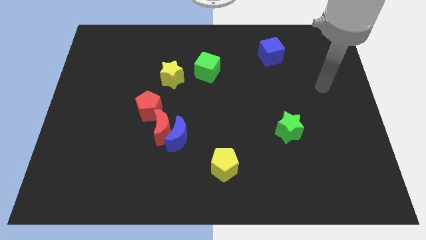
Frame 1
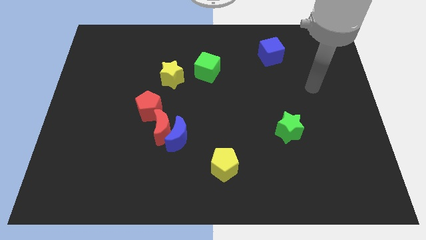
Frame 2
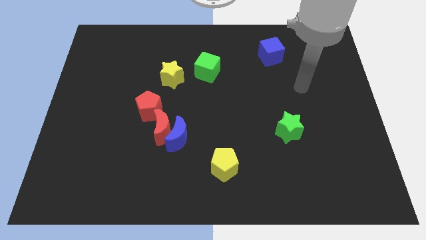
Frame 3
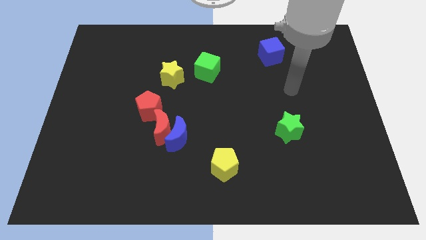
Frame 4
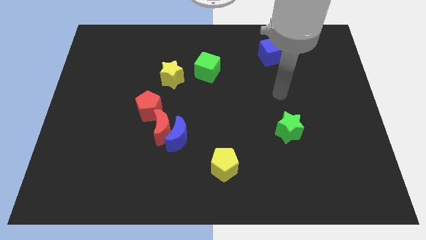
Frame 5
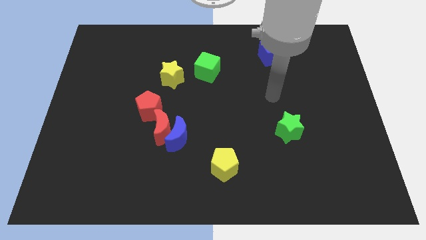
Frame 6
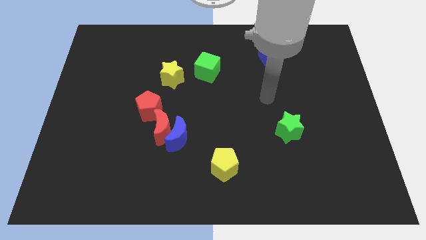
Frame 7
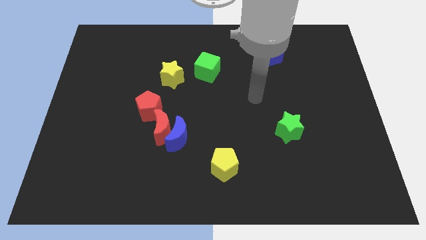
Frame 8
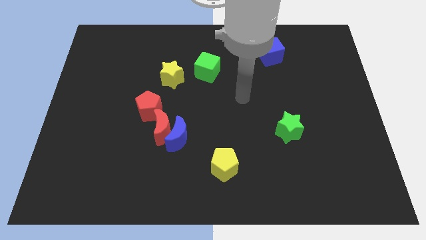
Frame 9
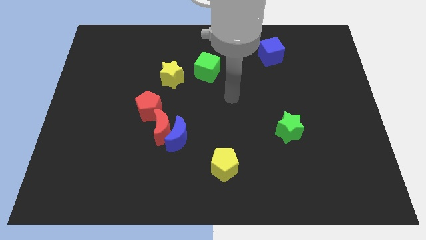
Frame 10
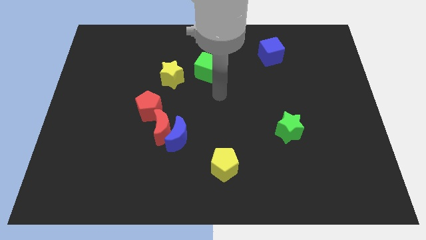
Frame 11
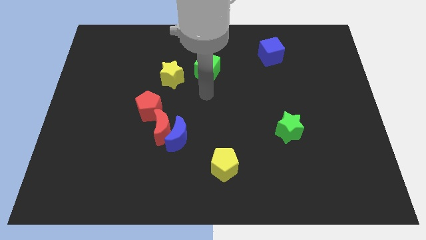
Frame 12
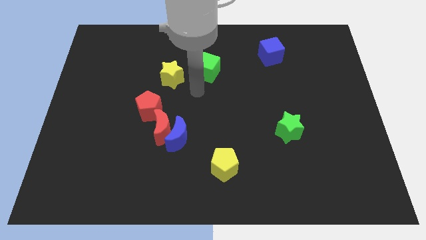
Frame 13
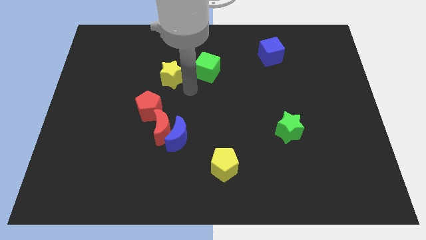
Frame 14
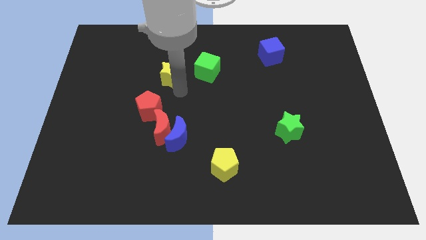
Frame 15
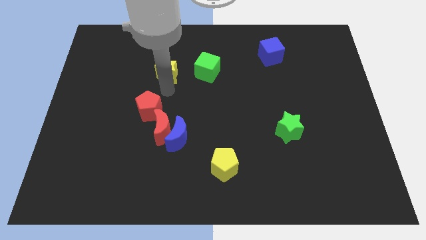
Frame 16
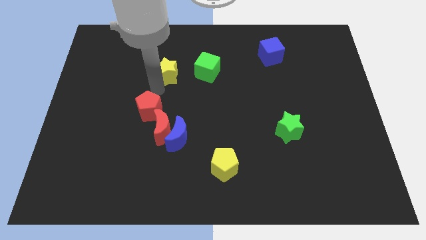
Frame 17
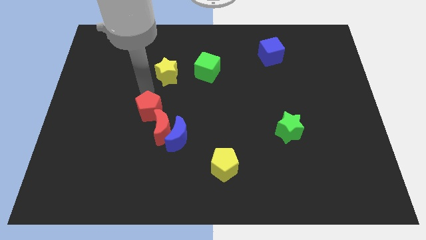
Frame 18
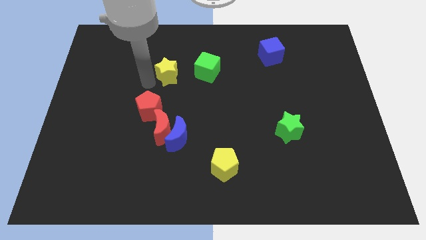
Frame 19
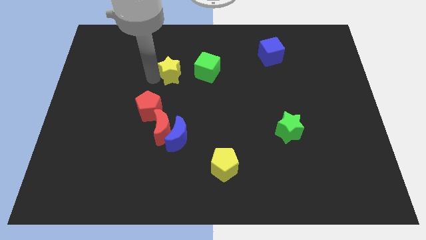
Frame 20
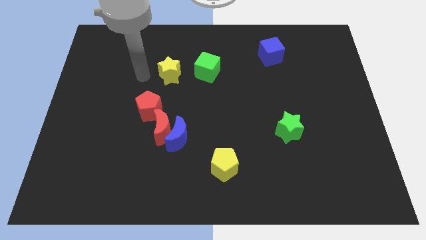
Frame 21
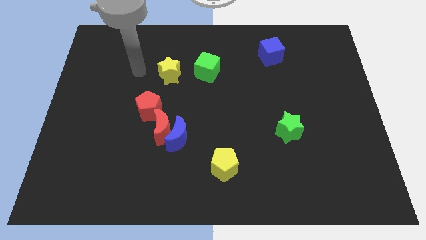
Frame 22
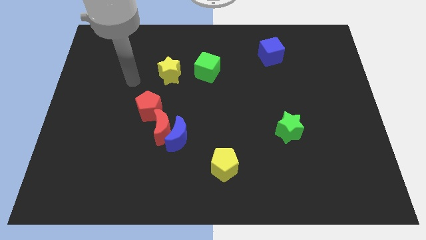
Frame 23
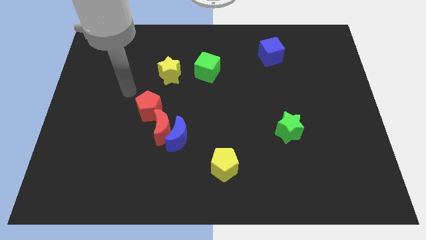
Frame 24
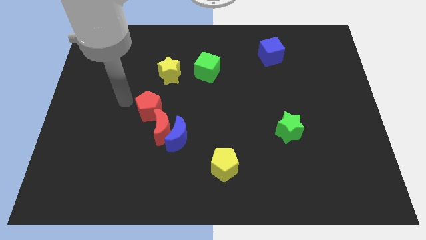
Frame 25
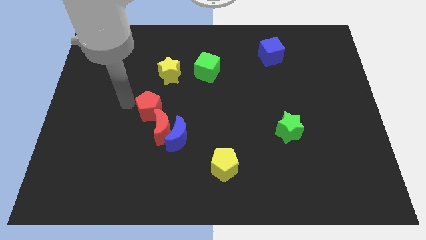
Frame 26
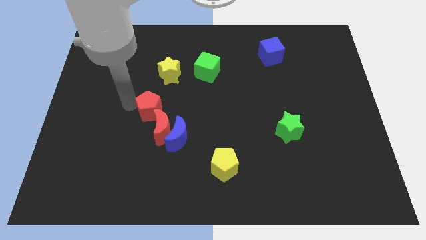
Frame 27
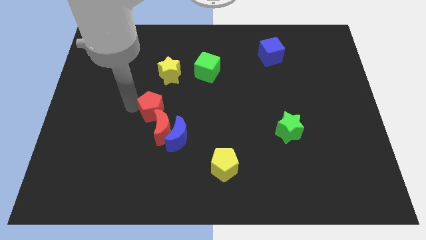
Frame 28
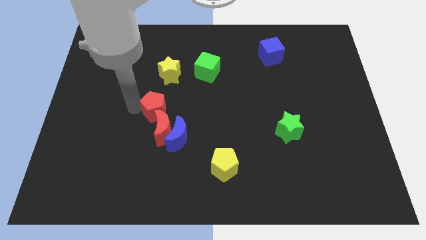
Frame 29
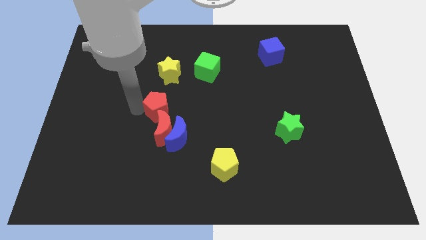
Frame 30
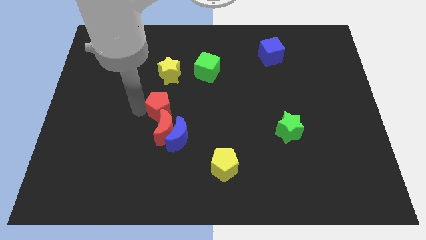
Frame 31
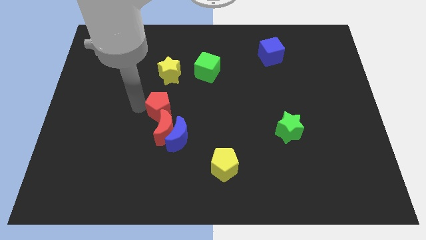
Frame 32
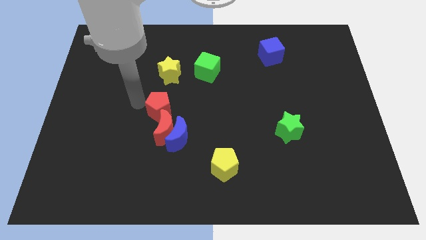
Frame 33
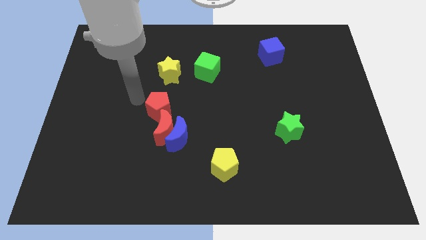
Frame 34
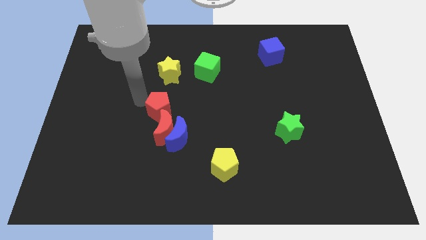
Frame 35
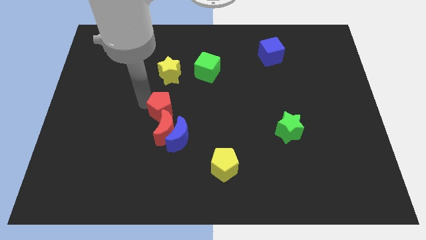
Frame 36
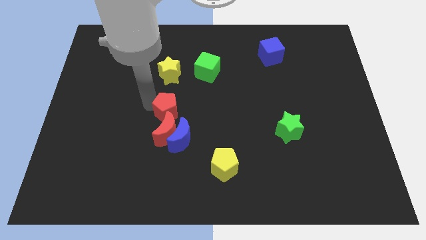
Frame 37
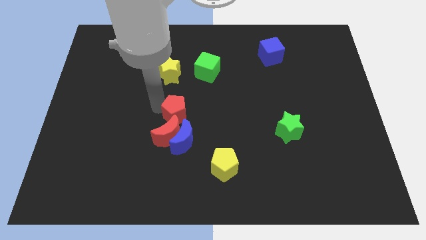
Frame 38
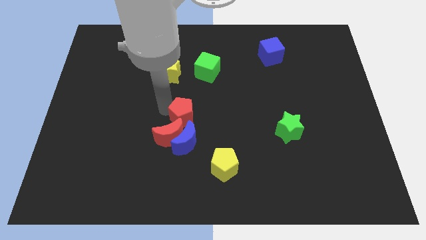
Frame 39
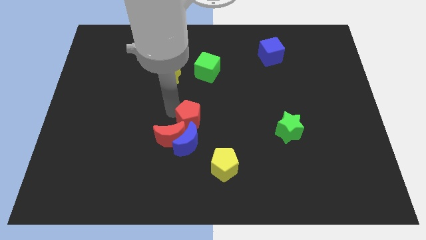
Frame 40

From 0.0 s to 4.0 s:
move the red pentagon downwards and then right somewhat

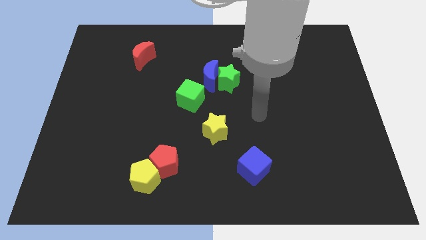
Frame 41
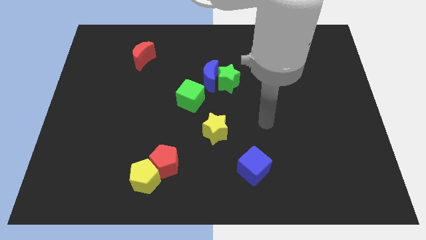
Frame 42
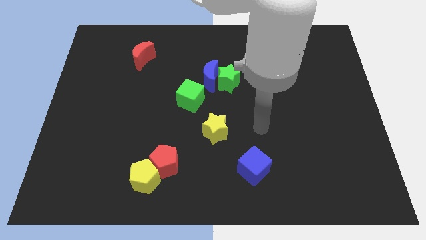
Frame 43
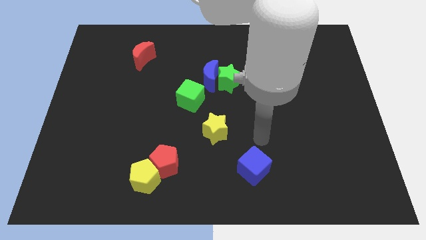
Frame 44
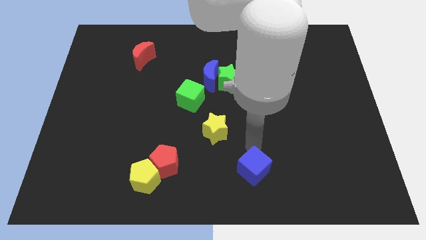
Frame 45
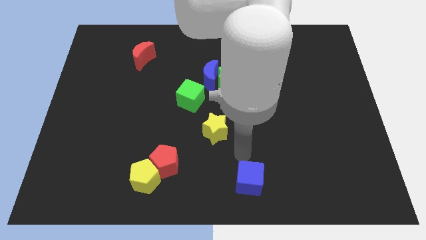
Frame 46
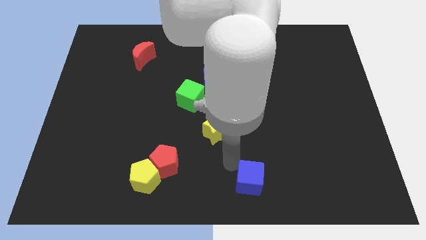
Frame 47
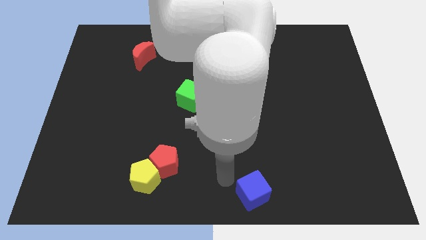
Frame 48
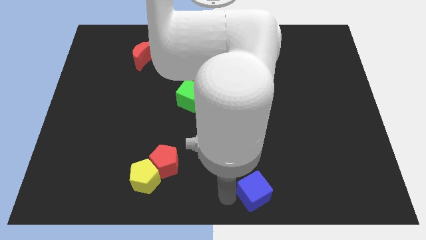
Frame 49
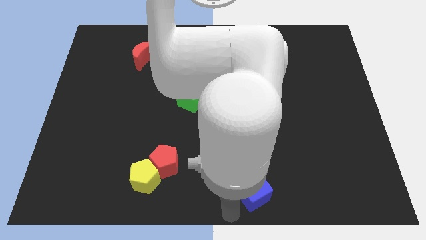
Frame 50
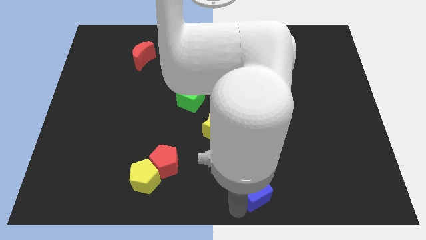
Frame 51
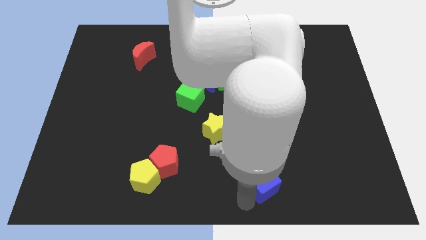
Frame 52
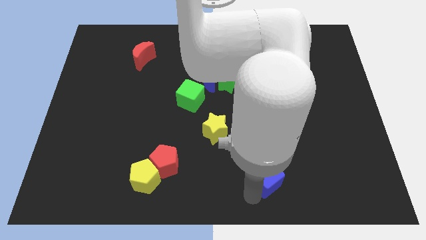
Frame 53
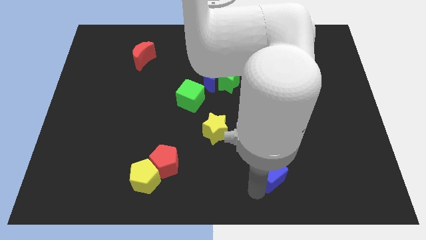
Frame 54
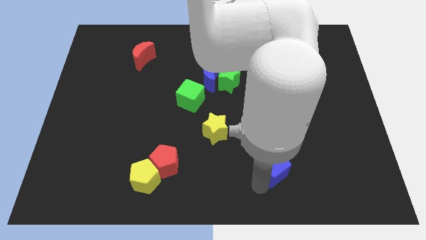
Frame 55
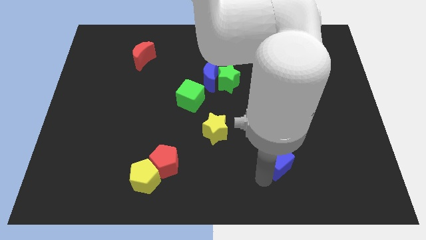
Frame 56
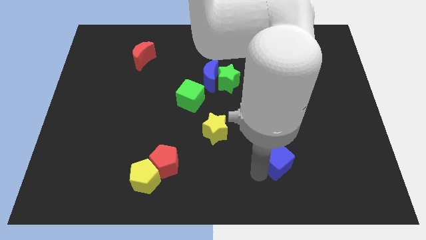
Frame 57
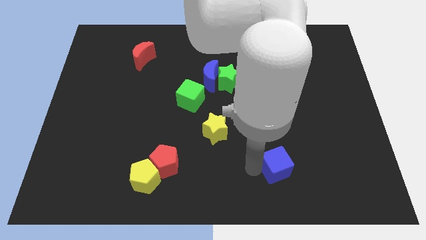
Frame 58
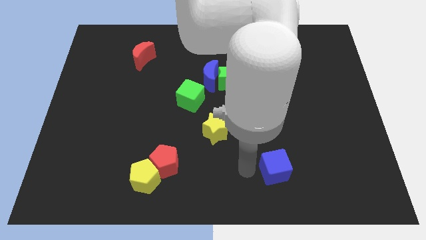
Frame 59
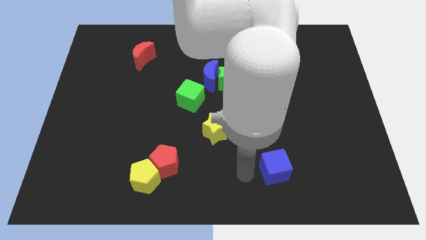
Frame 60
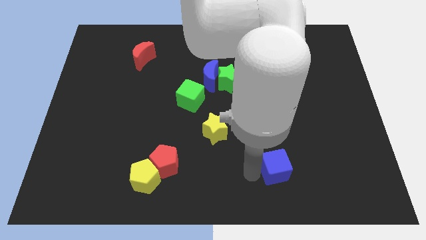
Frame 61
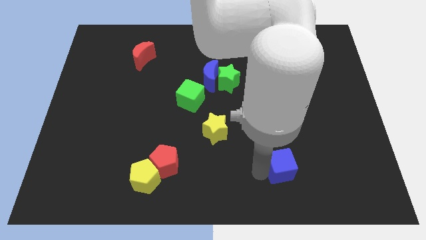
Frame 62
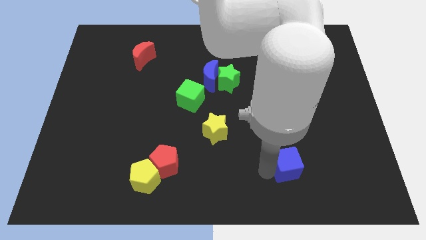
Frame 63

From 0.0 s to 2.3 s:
push the blue cube a little bit right

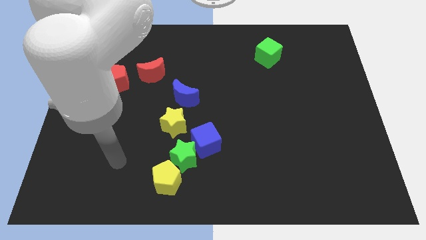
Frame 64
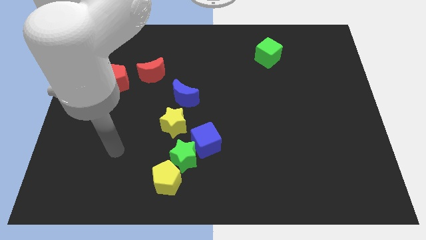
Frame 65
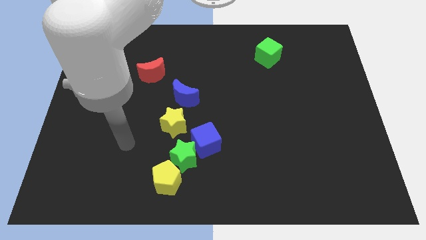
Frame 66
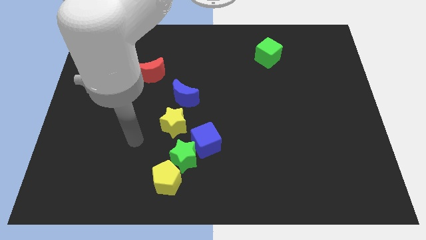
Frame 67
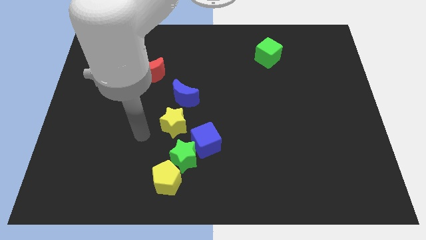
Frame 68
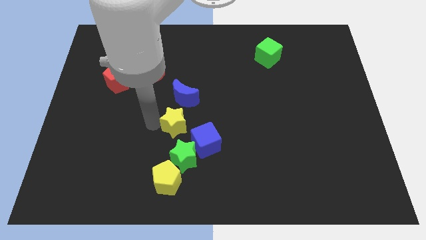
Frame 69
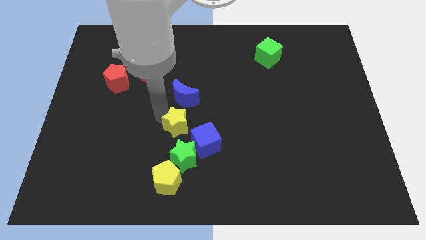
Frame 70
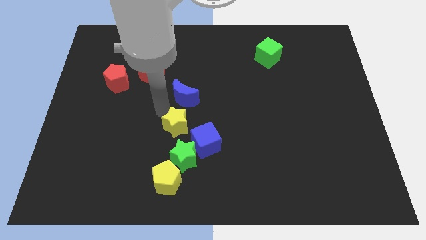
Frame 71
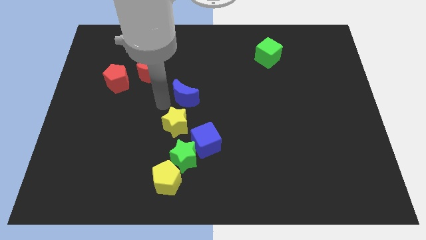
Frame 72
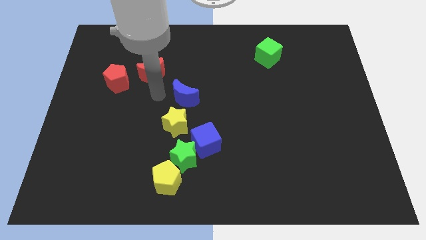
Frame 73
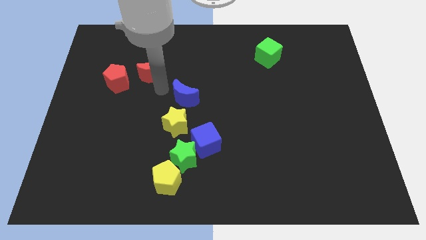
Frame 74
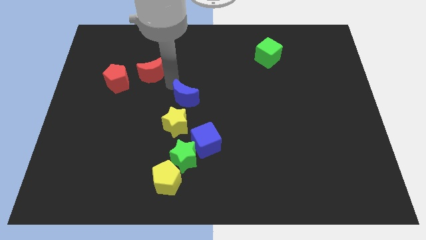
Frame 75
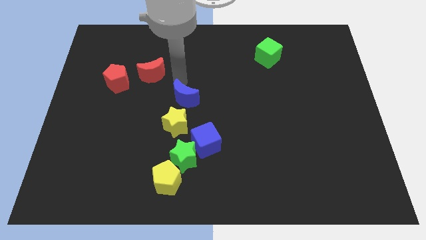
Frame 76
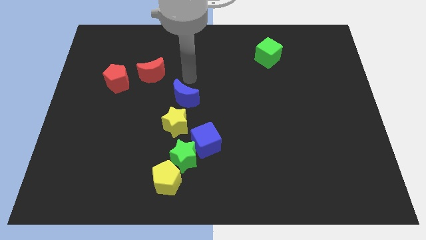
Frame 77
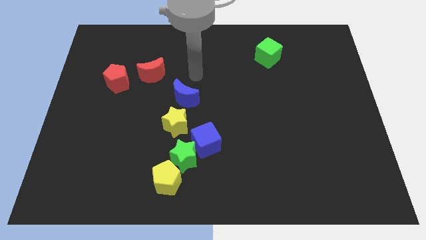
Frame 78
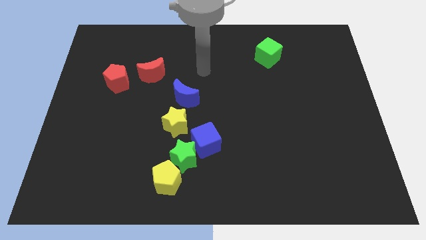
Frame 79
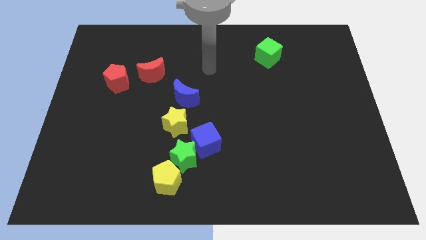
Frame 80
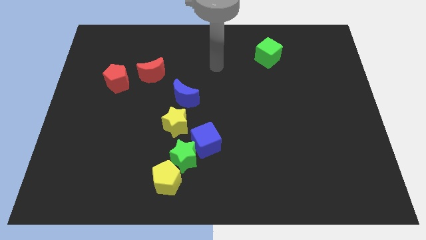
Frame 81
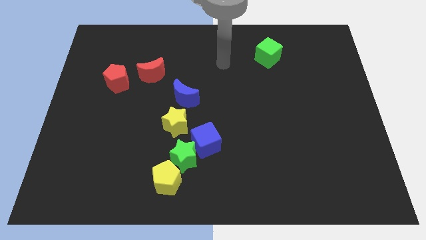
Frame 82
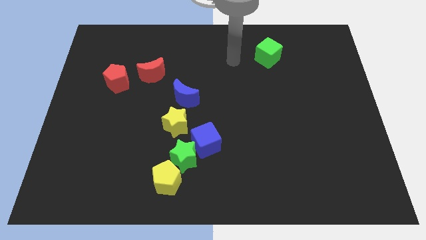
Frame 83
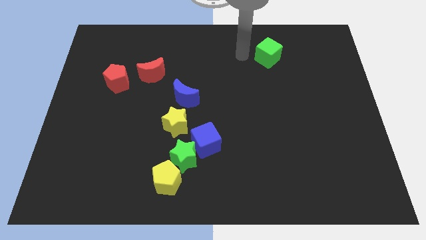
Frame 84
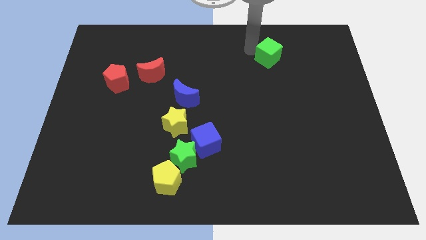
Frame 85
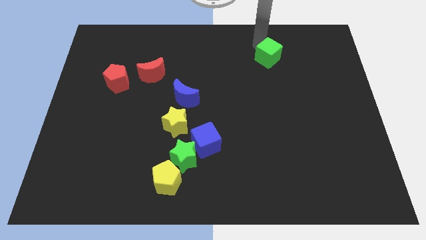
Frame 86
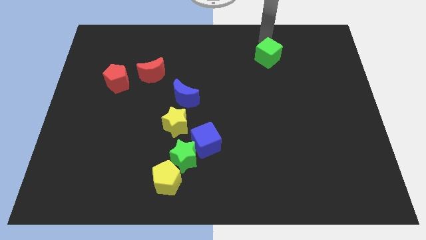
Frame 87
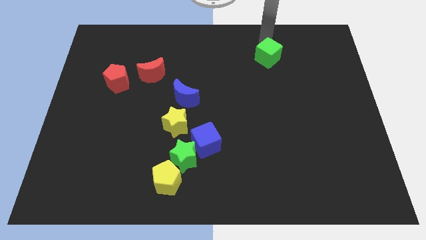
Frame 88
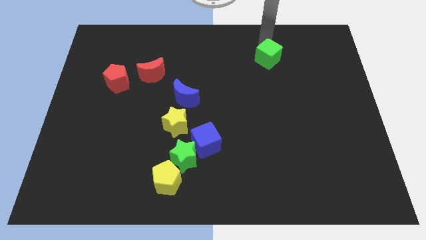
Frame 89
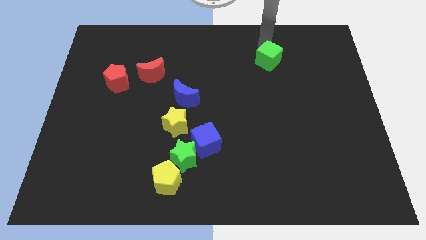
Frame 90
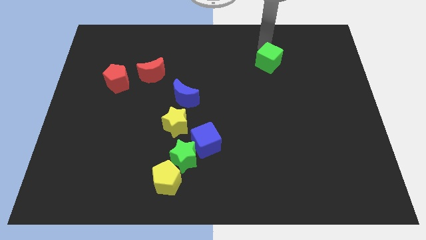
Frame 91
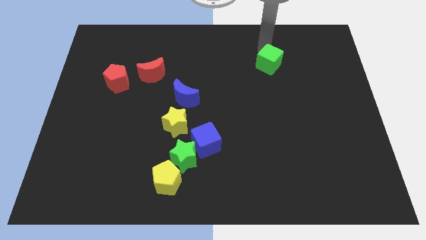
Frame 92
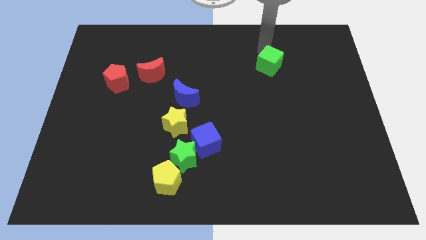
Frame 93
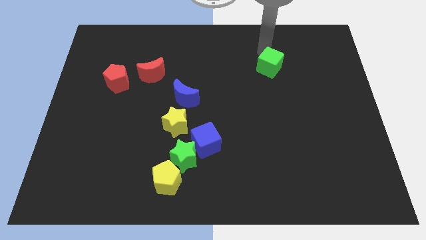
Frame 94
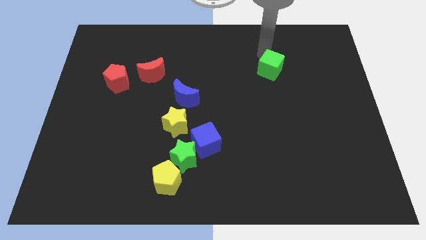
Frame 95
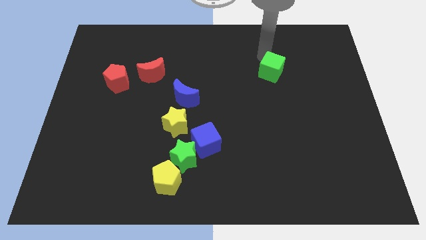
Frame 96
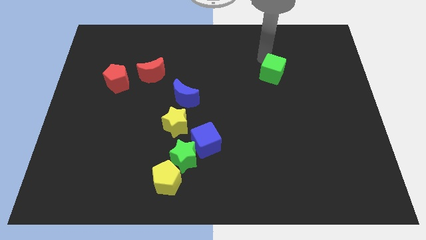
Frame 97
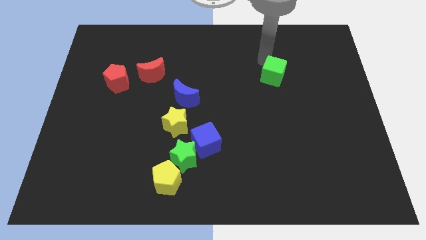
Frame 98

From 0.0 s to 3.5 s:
slightly slide the green cube downwards
